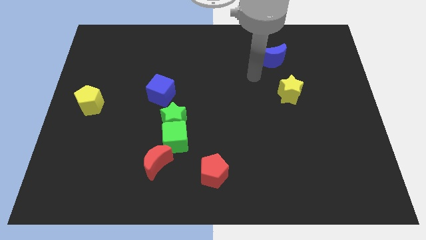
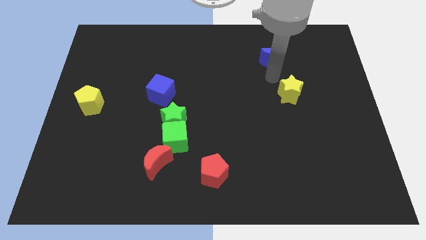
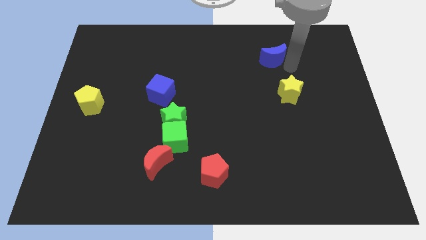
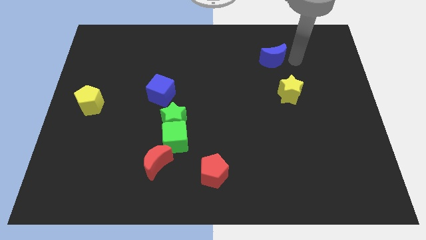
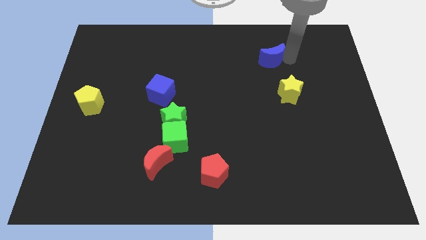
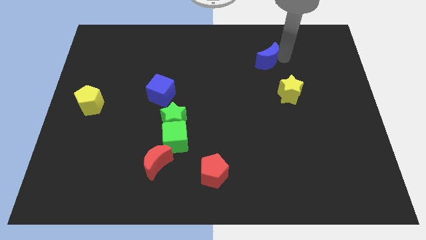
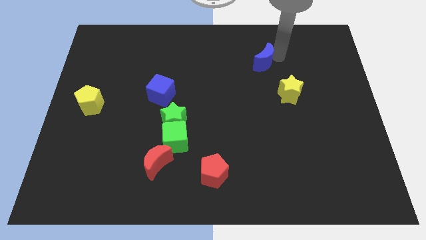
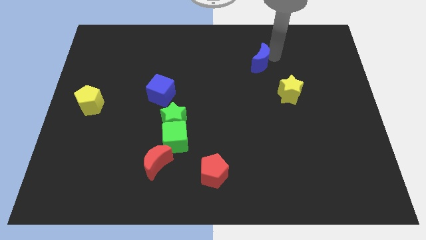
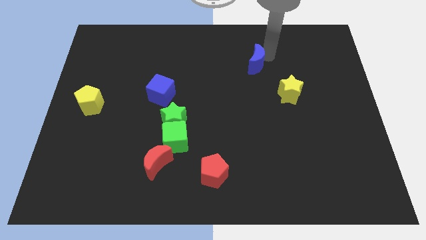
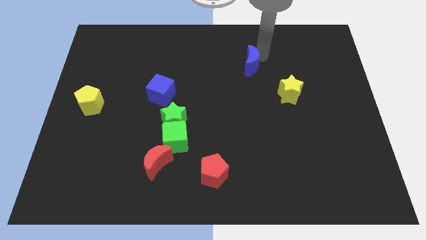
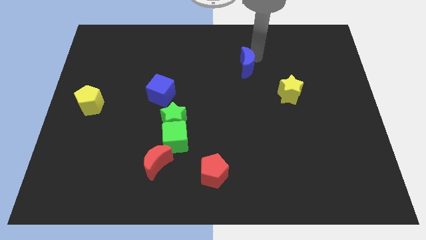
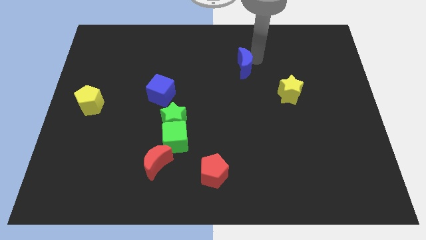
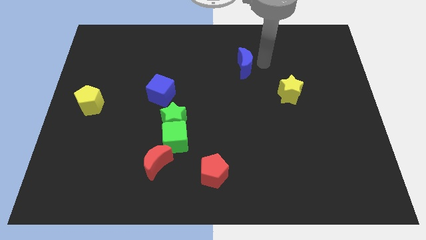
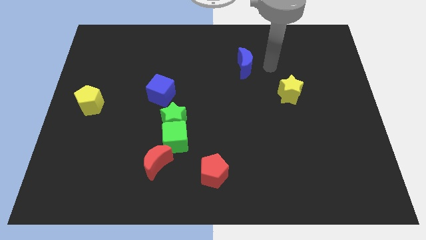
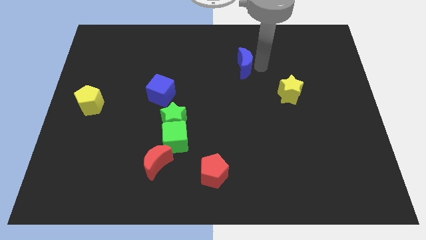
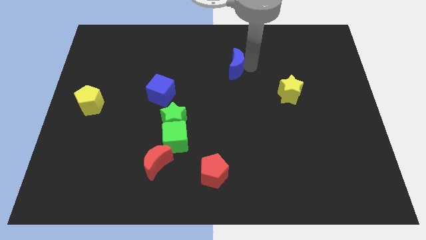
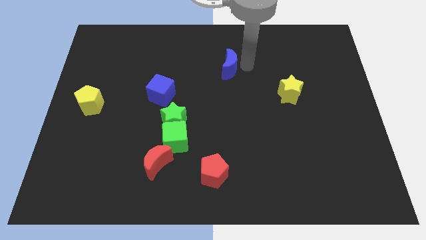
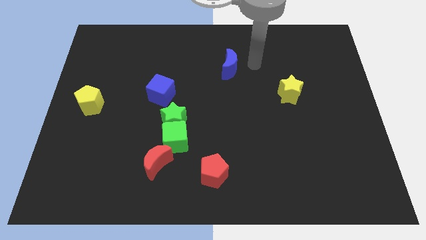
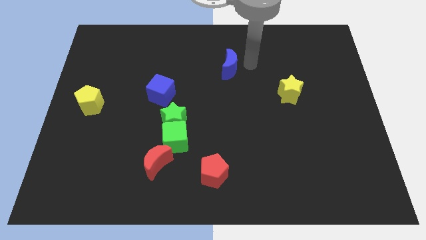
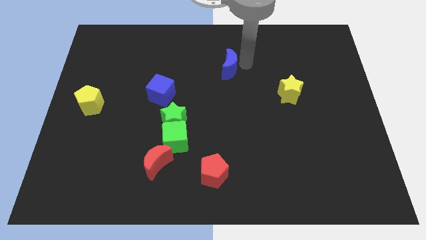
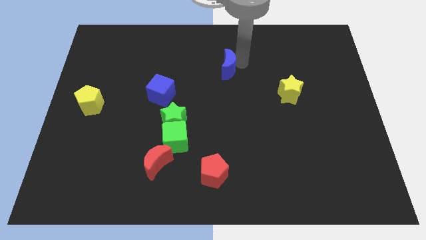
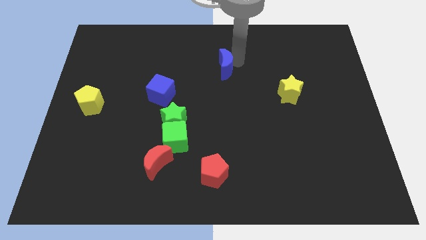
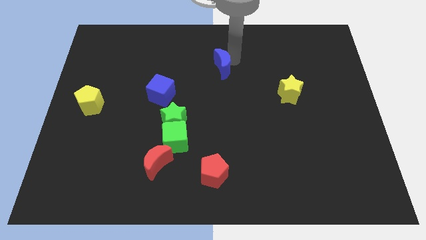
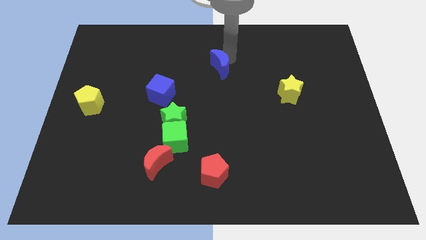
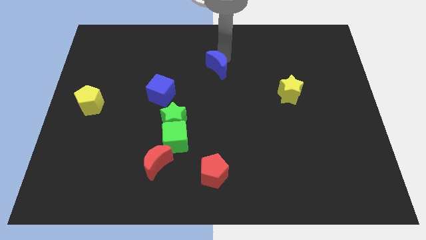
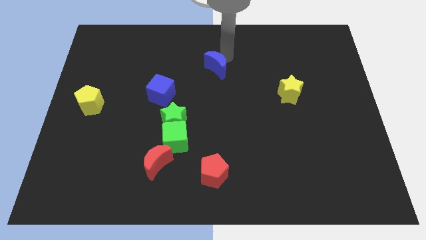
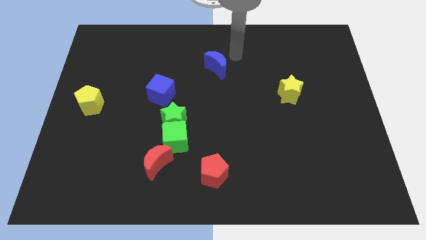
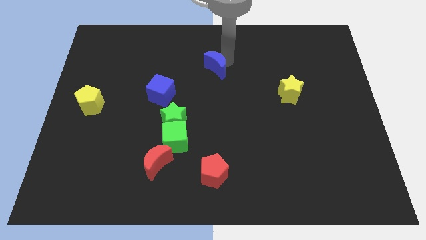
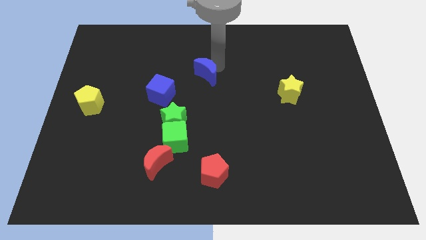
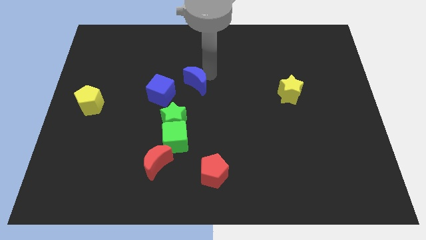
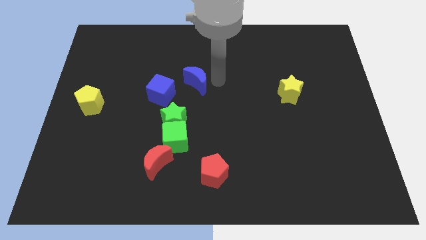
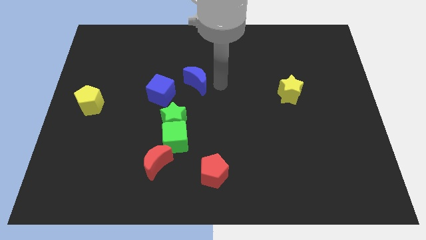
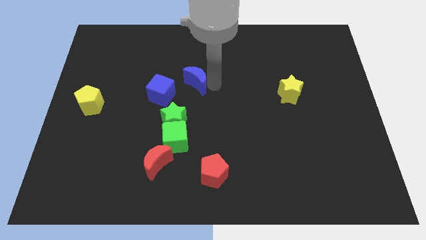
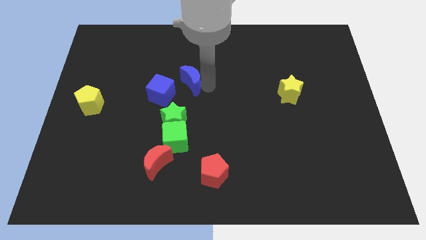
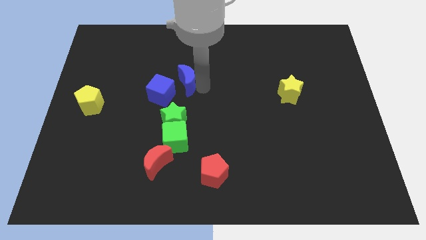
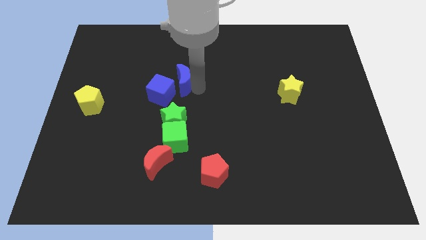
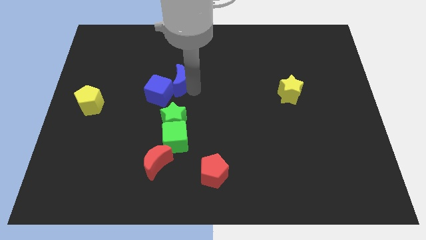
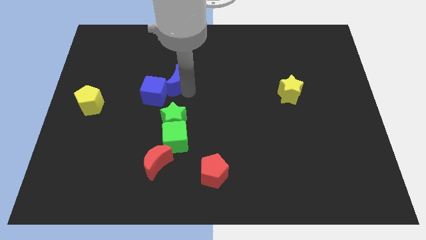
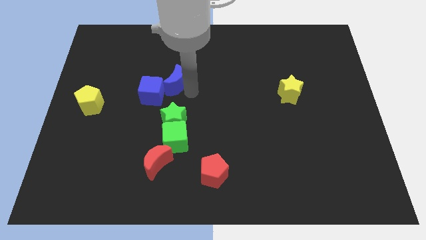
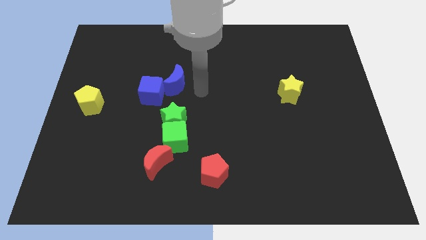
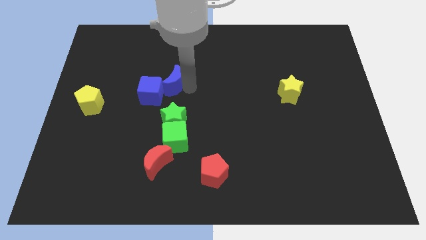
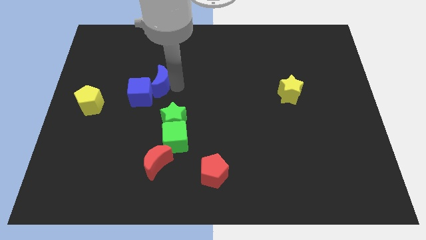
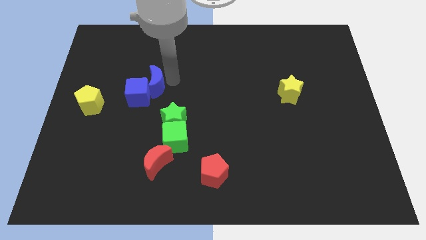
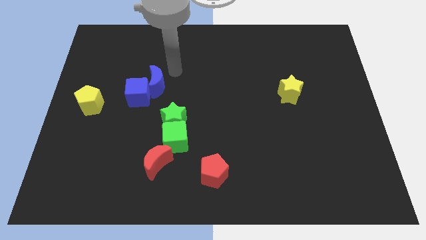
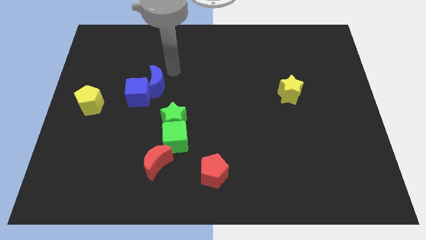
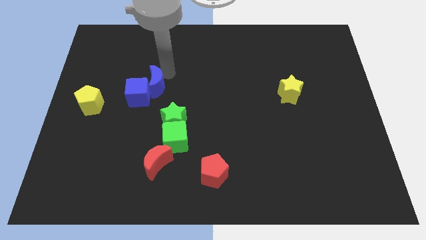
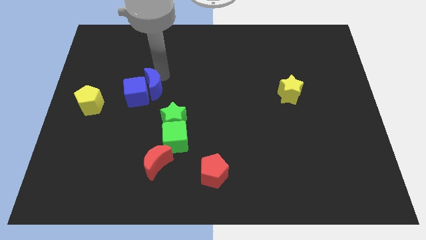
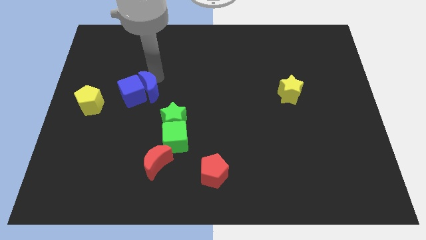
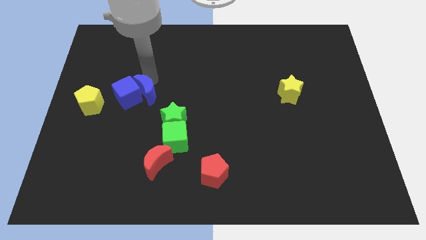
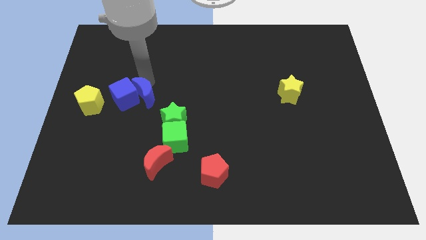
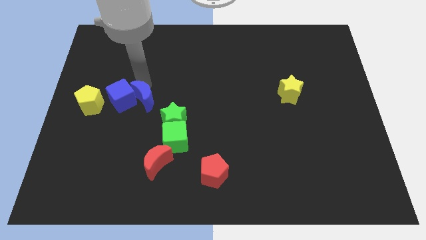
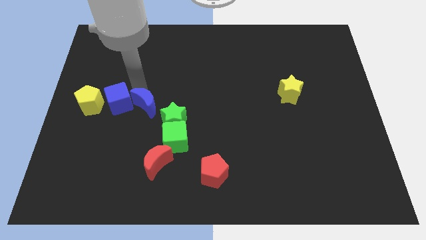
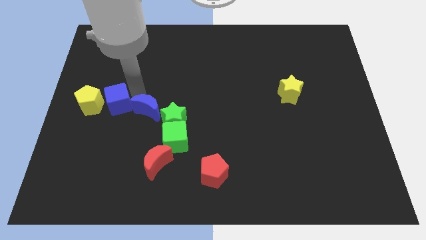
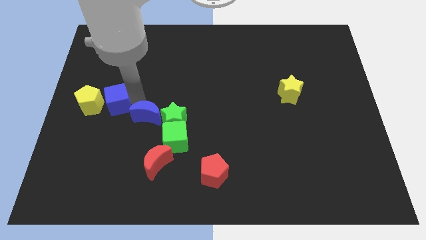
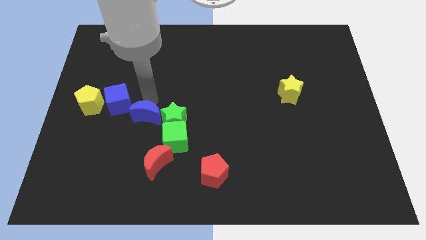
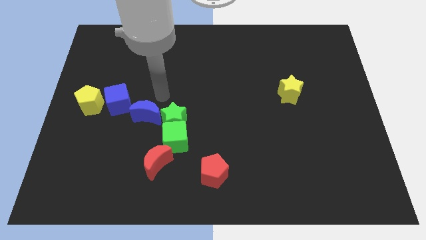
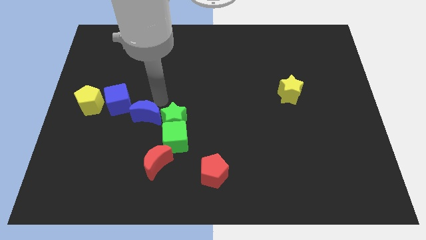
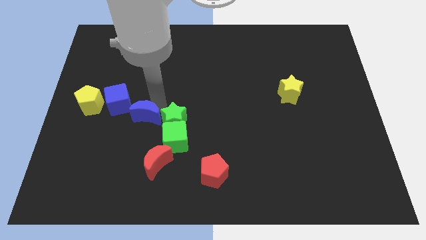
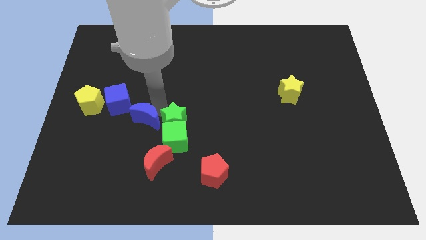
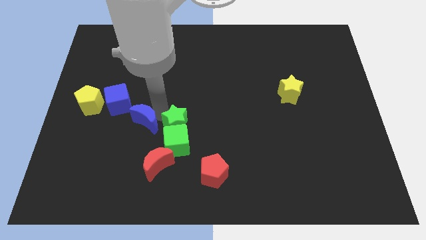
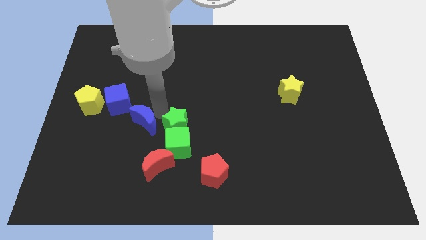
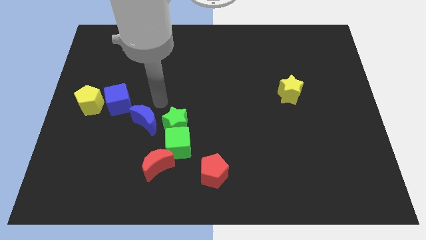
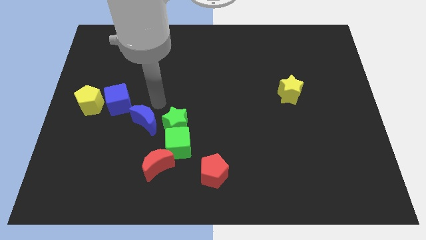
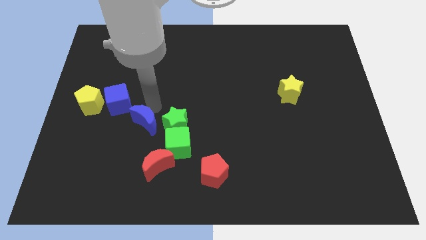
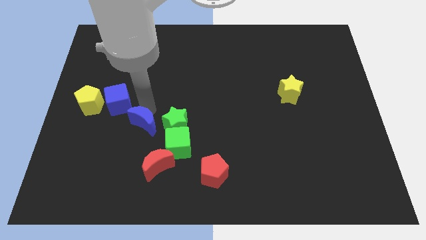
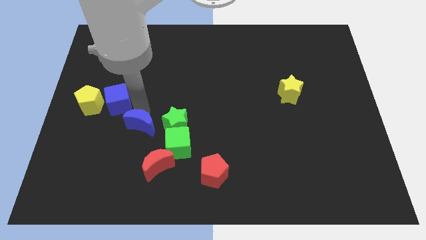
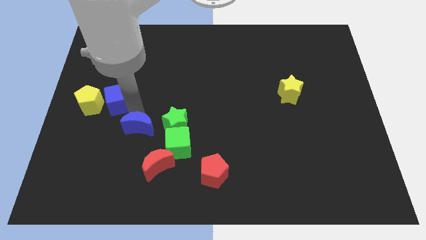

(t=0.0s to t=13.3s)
move the blue moon just left of the green cube

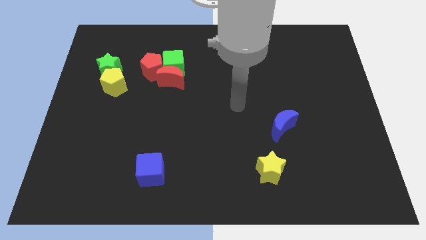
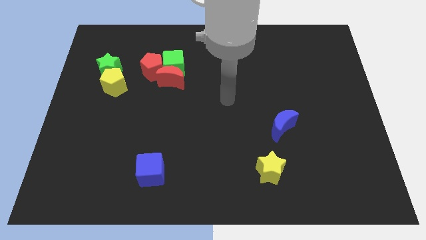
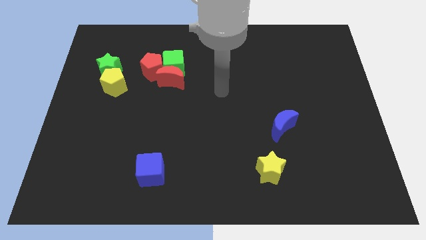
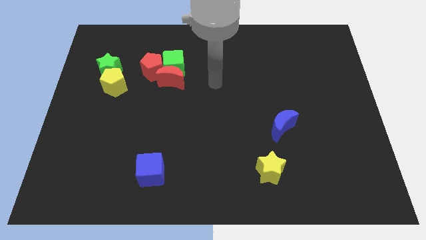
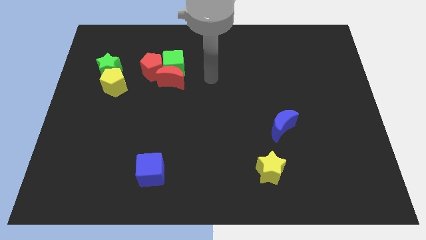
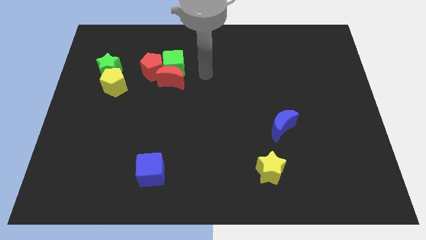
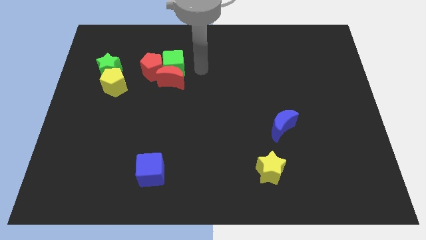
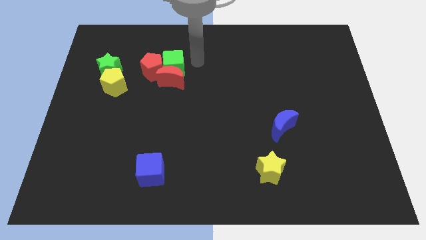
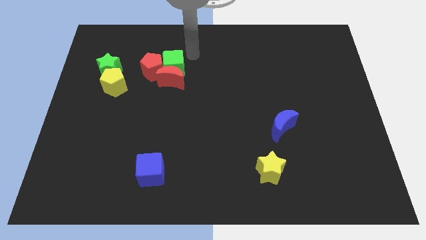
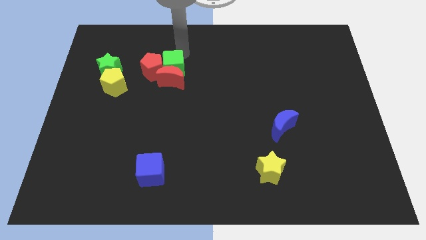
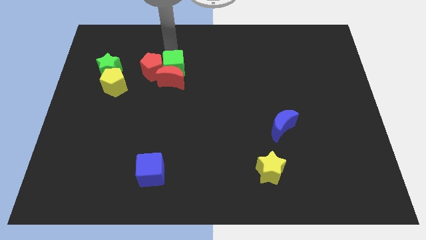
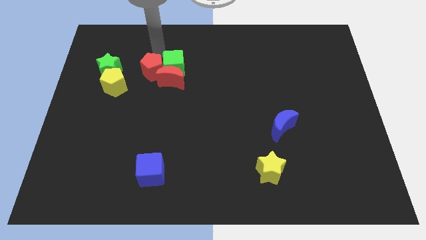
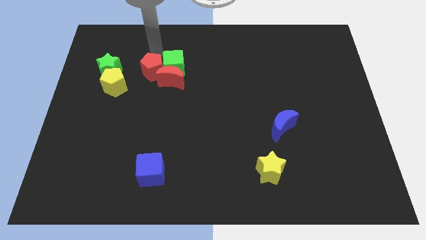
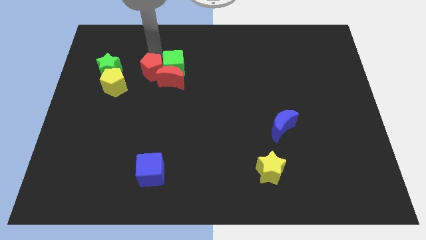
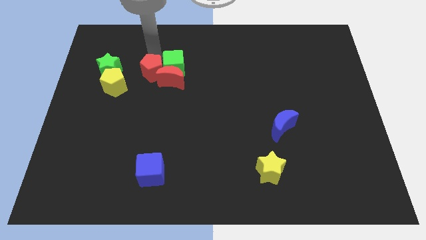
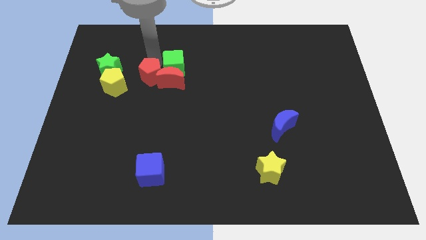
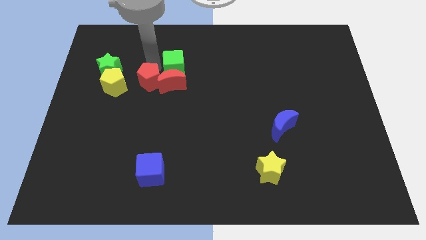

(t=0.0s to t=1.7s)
move the red pentagon to the bottom left of the red moon
